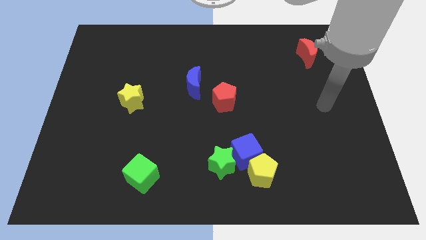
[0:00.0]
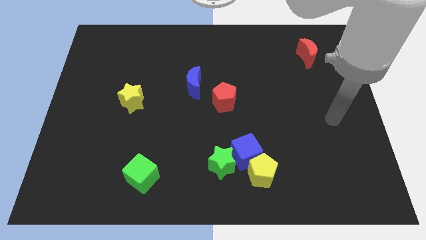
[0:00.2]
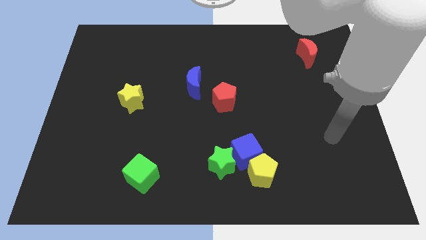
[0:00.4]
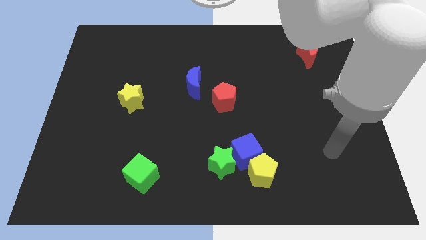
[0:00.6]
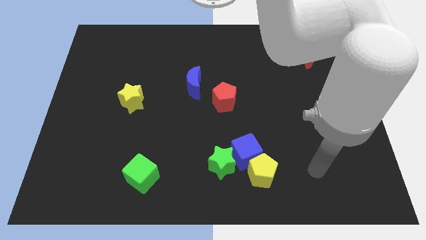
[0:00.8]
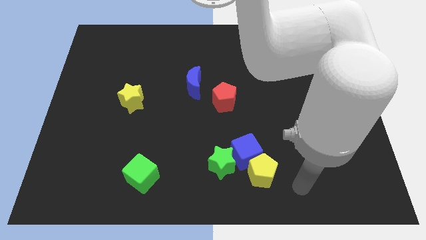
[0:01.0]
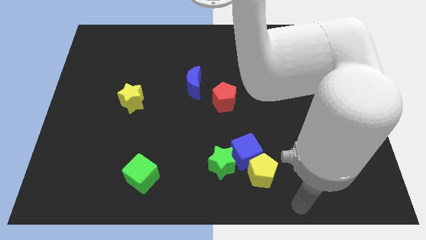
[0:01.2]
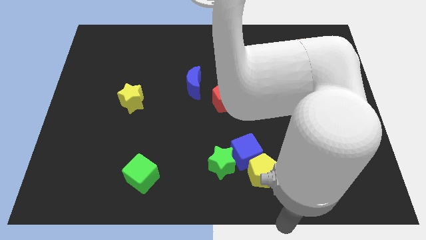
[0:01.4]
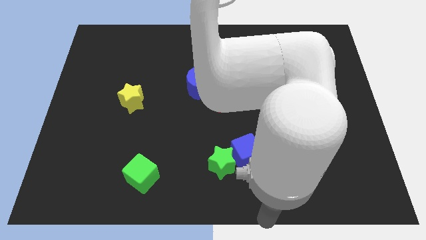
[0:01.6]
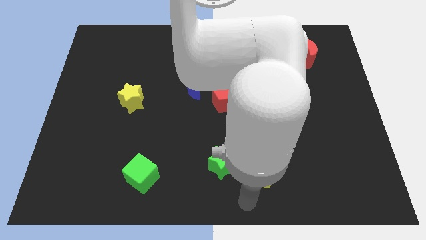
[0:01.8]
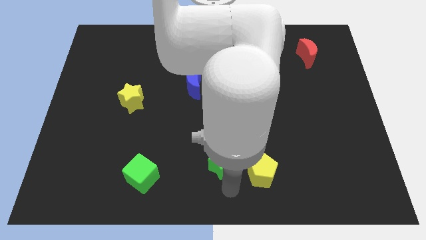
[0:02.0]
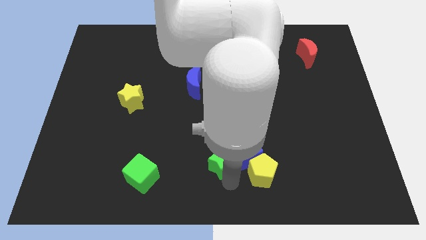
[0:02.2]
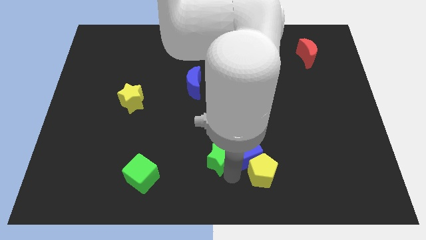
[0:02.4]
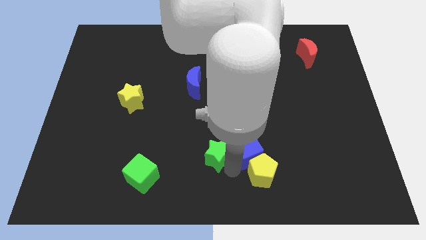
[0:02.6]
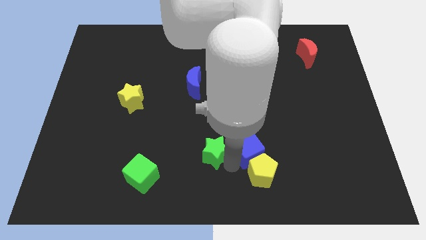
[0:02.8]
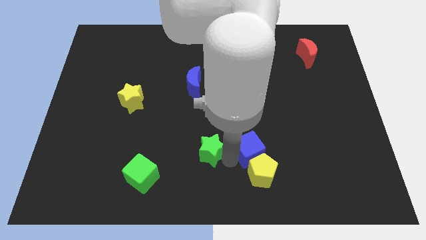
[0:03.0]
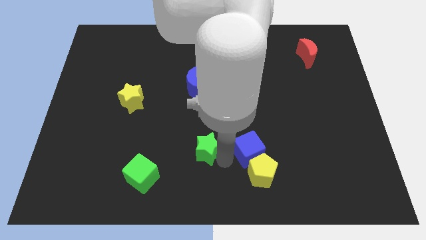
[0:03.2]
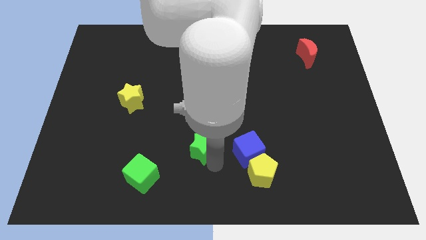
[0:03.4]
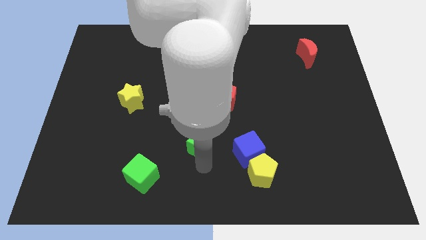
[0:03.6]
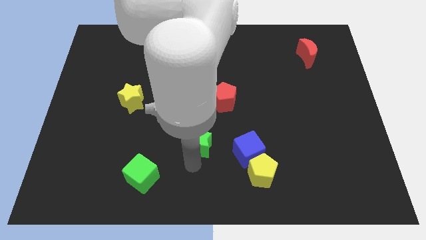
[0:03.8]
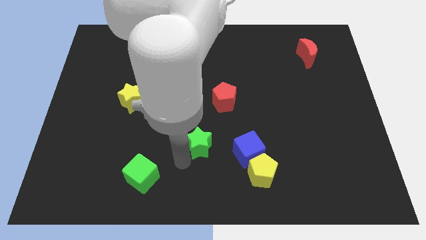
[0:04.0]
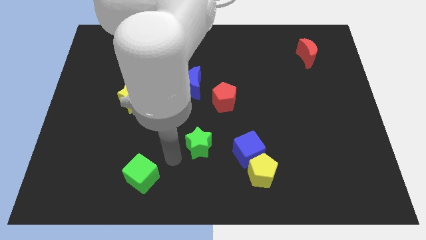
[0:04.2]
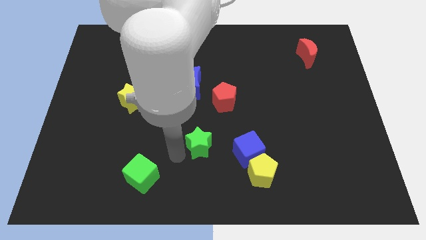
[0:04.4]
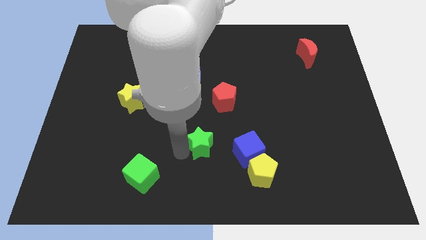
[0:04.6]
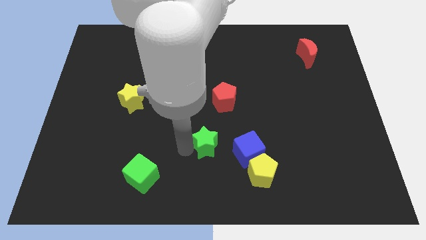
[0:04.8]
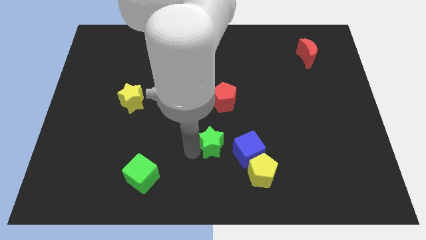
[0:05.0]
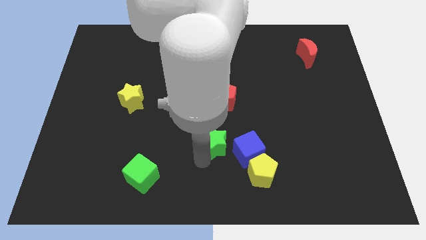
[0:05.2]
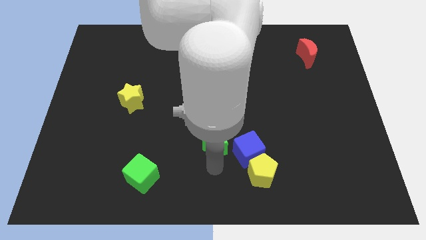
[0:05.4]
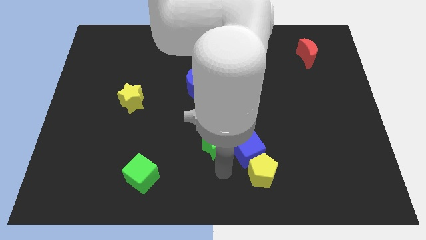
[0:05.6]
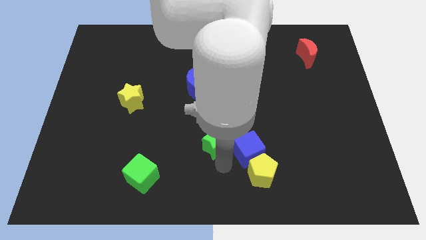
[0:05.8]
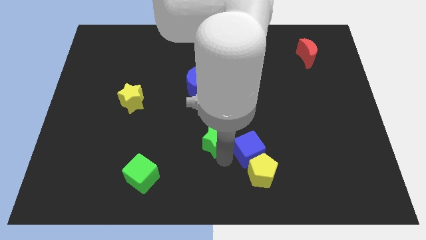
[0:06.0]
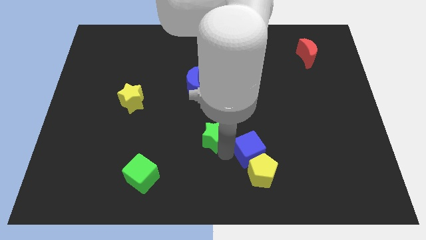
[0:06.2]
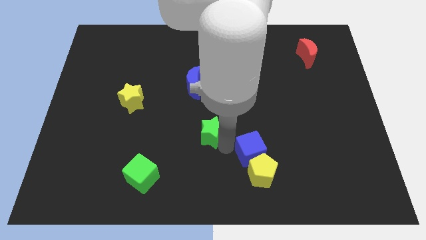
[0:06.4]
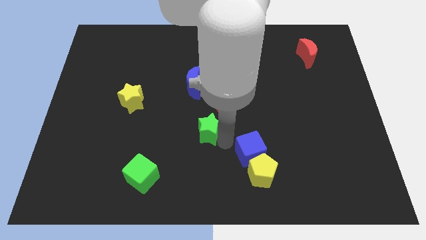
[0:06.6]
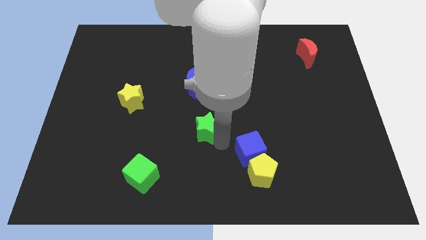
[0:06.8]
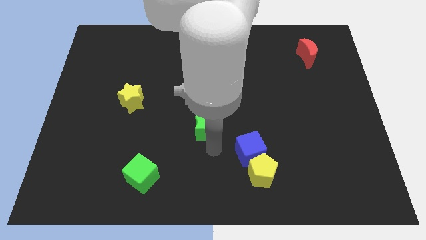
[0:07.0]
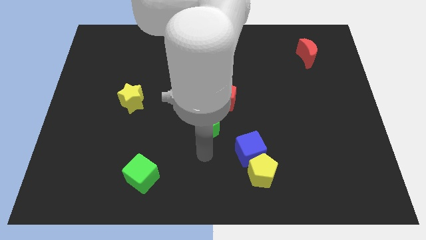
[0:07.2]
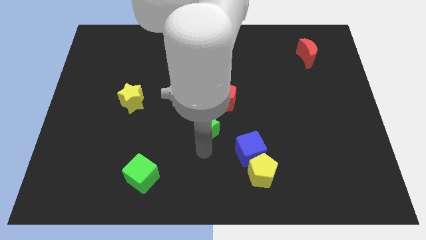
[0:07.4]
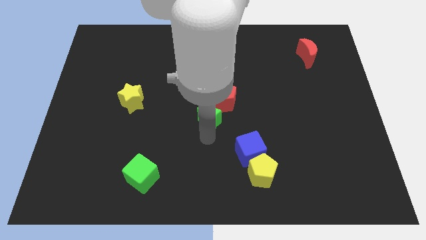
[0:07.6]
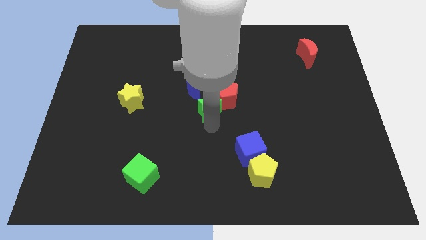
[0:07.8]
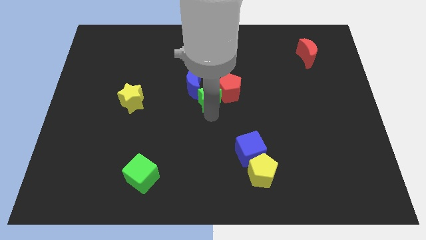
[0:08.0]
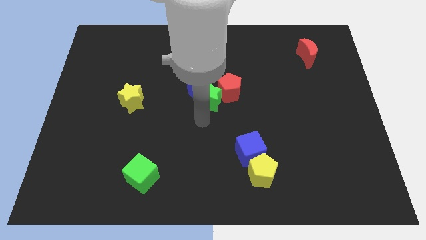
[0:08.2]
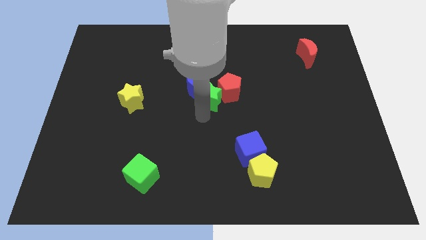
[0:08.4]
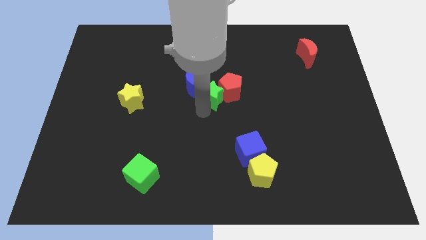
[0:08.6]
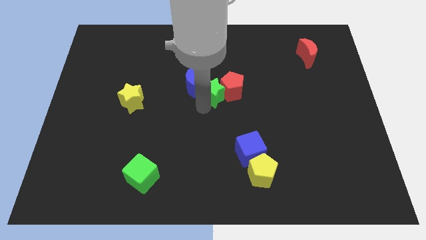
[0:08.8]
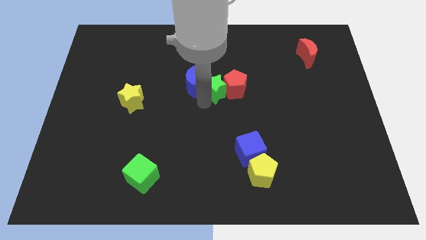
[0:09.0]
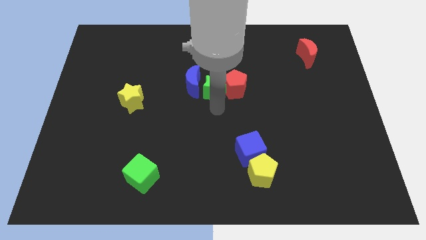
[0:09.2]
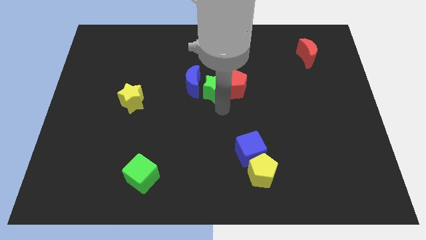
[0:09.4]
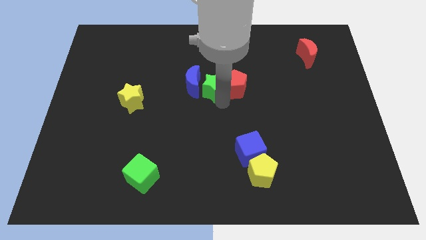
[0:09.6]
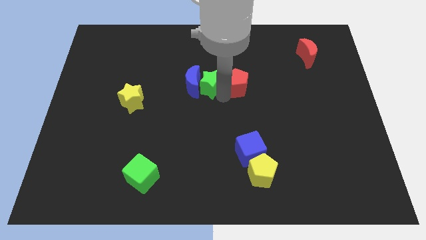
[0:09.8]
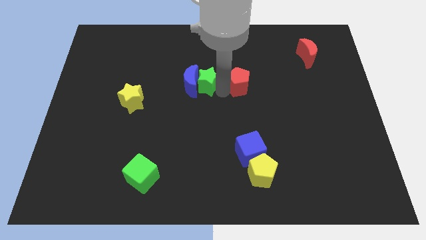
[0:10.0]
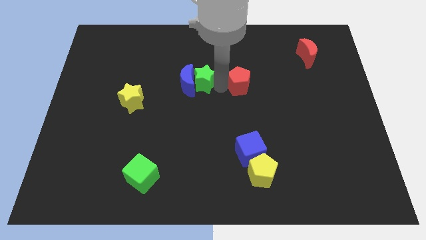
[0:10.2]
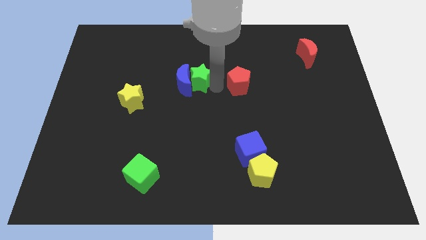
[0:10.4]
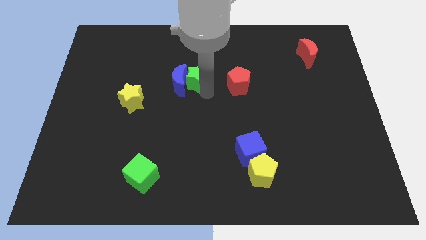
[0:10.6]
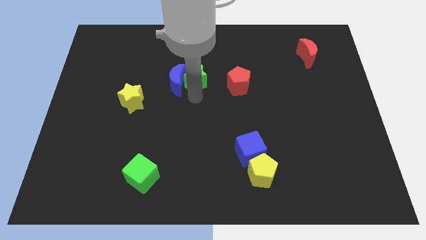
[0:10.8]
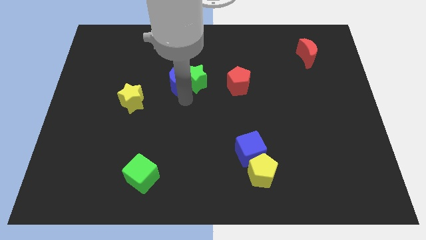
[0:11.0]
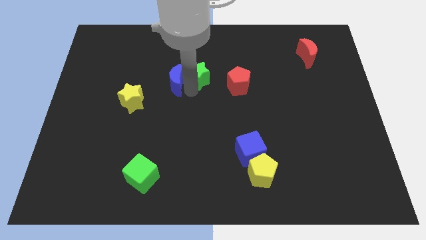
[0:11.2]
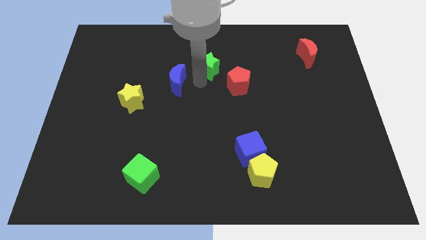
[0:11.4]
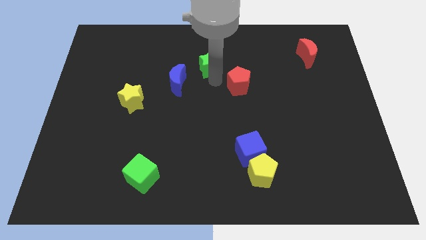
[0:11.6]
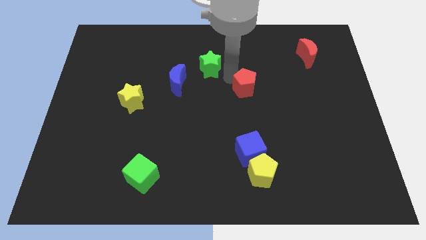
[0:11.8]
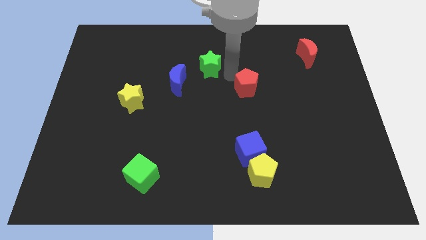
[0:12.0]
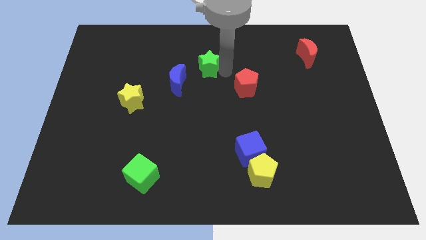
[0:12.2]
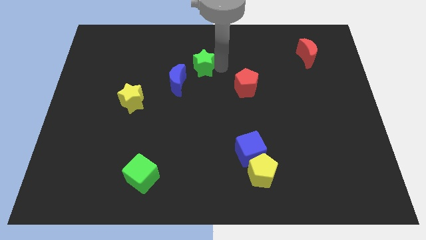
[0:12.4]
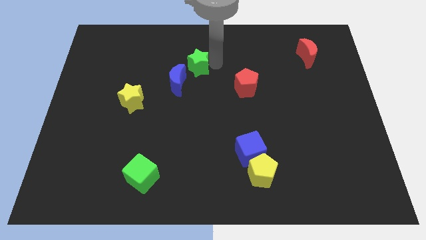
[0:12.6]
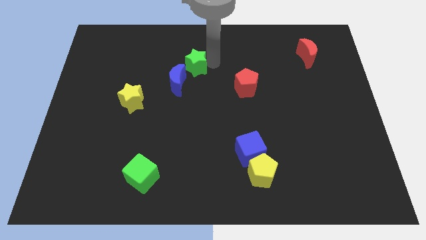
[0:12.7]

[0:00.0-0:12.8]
move the green star to the top side of the blue moon

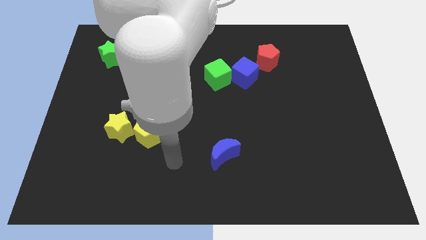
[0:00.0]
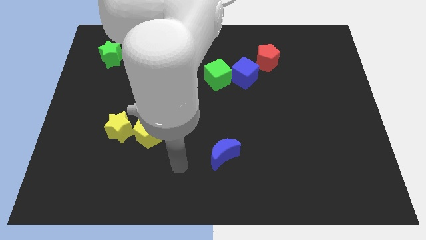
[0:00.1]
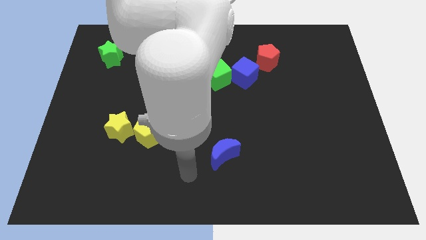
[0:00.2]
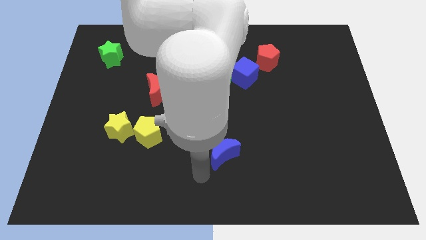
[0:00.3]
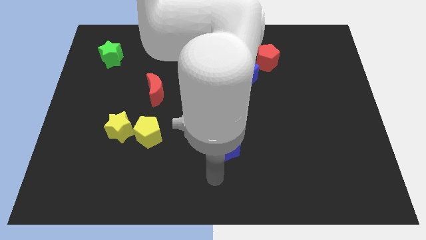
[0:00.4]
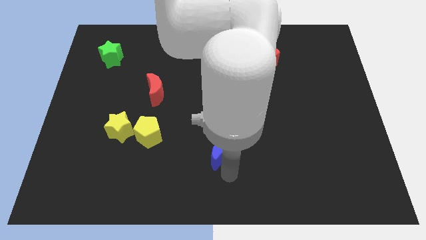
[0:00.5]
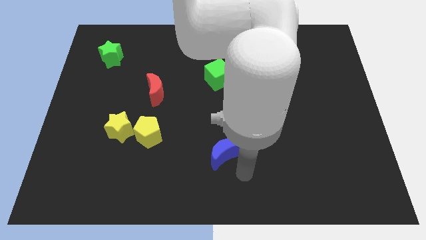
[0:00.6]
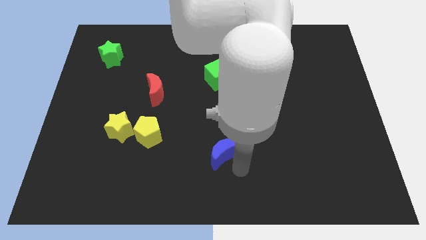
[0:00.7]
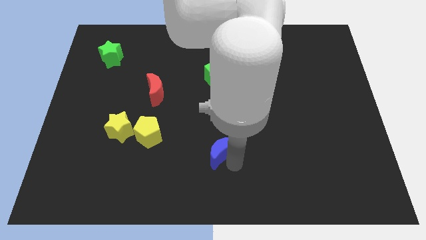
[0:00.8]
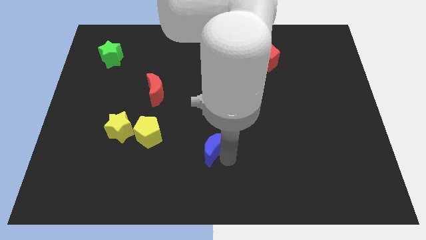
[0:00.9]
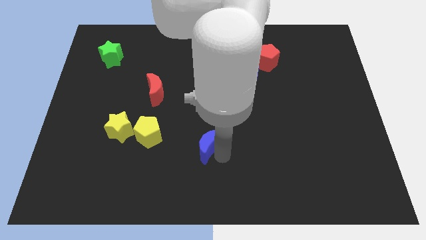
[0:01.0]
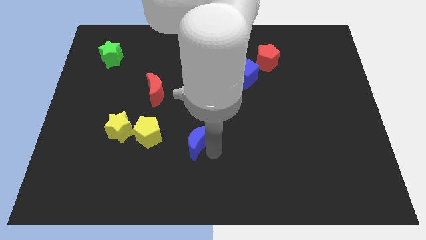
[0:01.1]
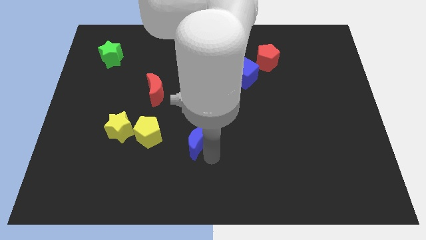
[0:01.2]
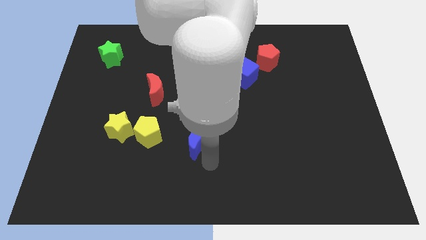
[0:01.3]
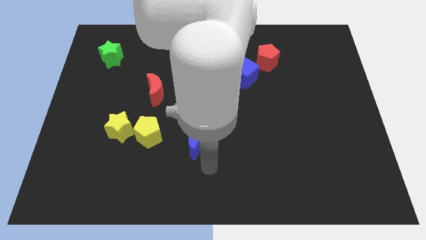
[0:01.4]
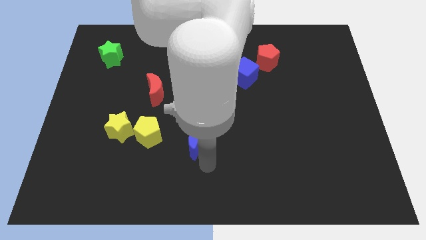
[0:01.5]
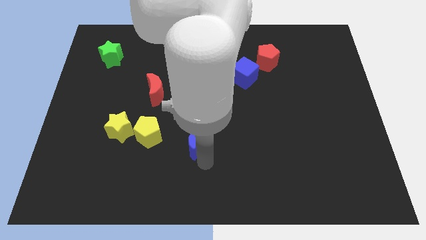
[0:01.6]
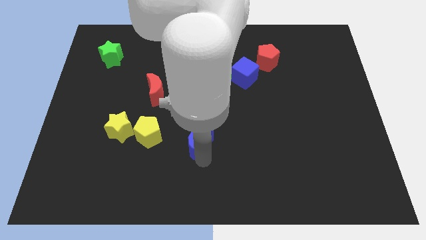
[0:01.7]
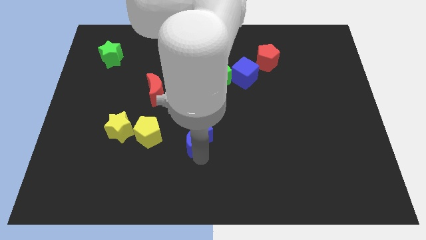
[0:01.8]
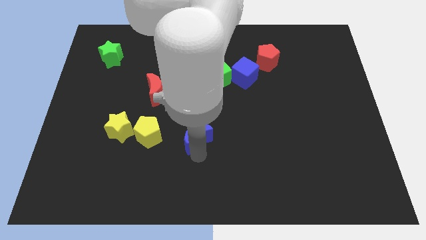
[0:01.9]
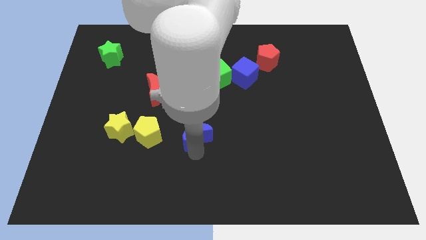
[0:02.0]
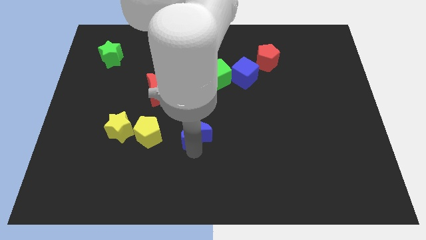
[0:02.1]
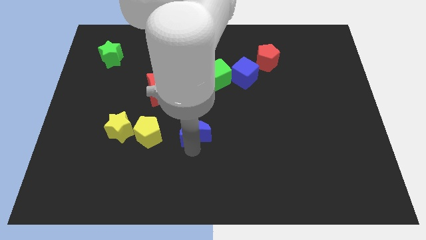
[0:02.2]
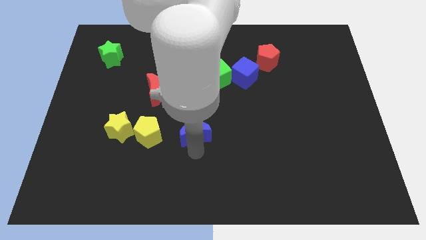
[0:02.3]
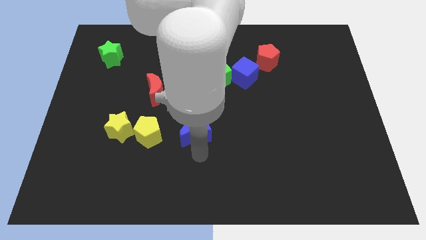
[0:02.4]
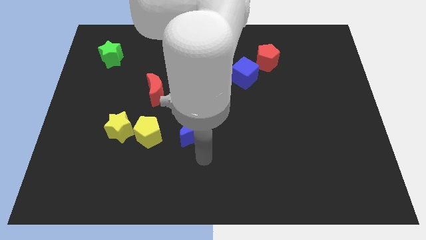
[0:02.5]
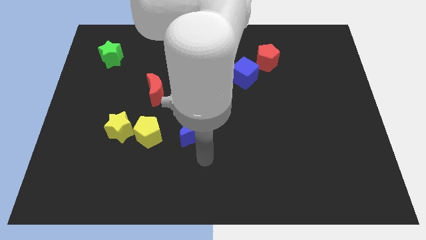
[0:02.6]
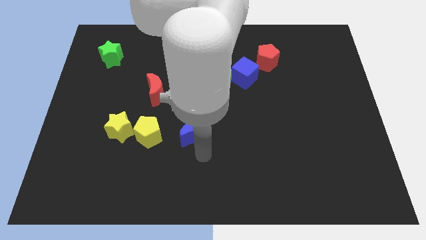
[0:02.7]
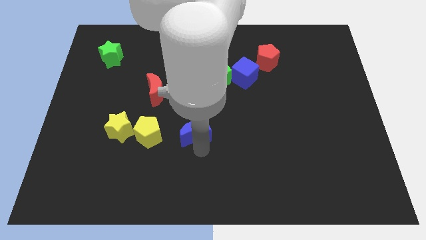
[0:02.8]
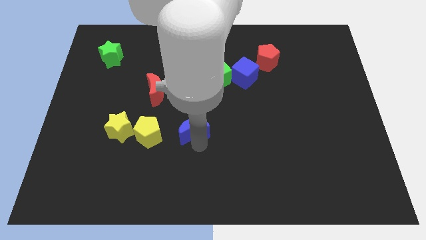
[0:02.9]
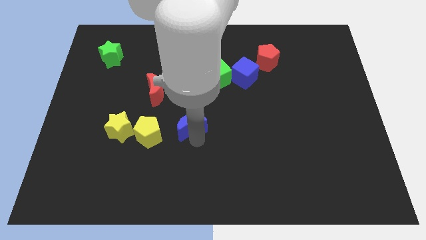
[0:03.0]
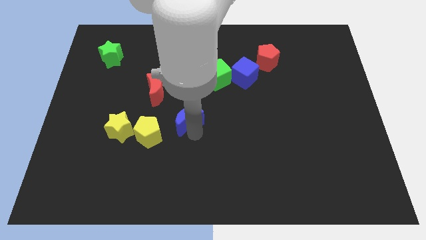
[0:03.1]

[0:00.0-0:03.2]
put the blue moon diagonally down and to the right of the red moon
